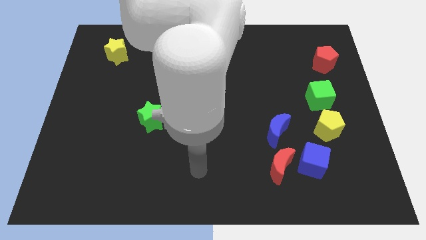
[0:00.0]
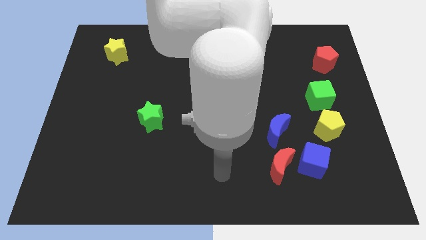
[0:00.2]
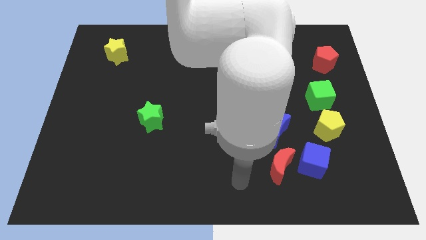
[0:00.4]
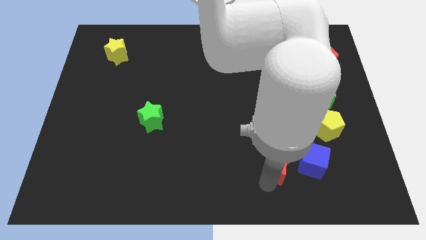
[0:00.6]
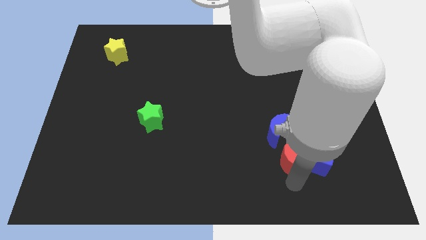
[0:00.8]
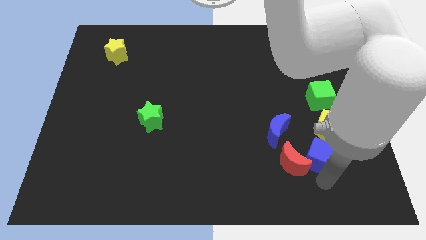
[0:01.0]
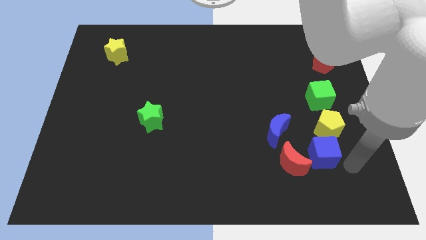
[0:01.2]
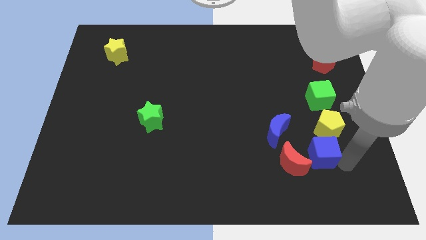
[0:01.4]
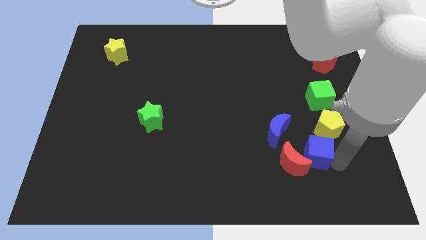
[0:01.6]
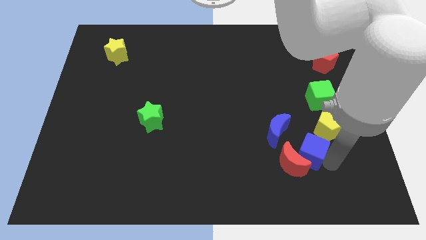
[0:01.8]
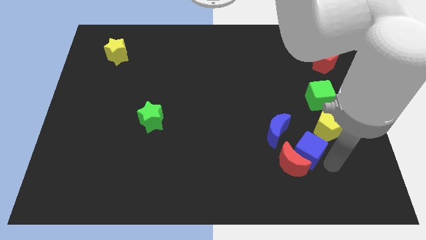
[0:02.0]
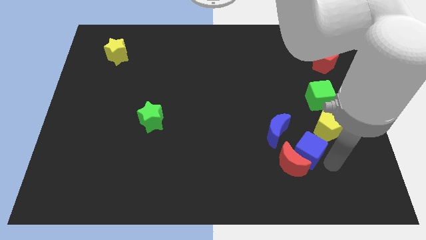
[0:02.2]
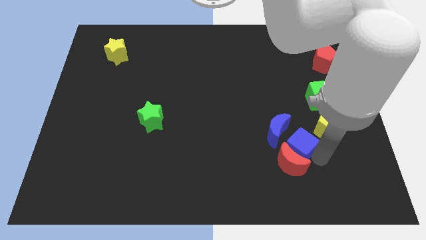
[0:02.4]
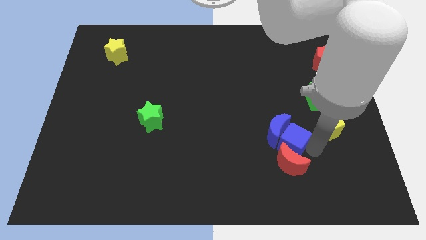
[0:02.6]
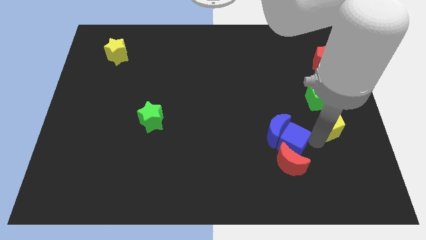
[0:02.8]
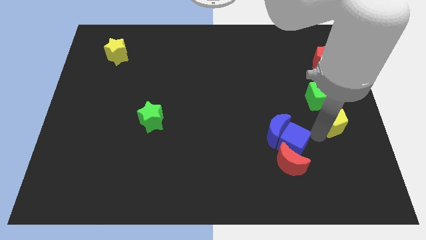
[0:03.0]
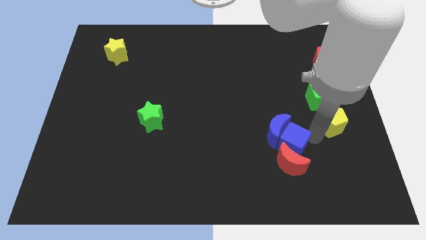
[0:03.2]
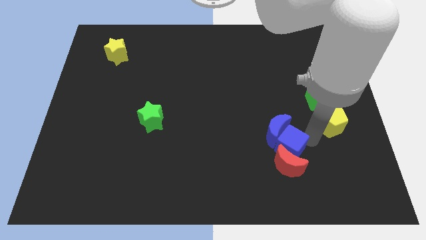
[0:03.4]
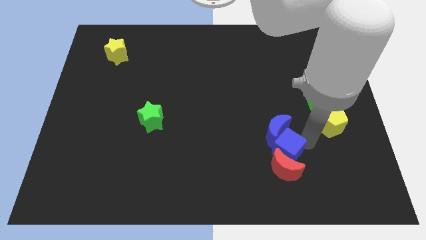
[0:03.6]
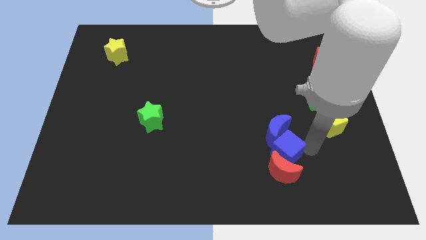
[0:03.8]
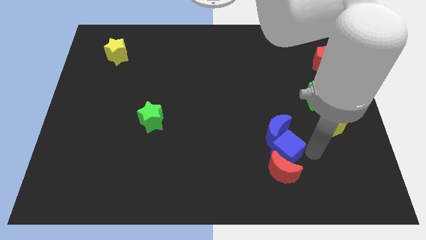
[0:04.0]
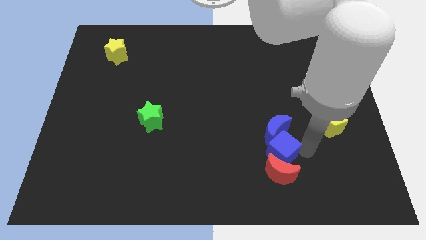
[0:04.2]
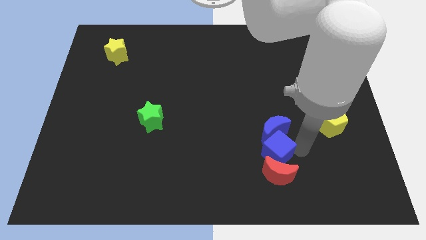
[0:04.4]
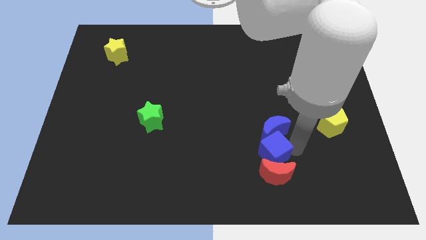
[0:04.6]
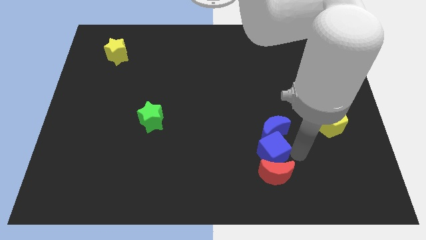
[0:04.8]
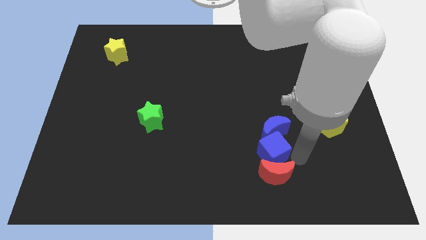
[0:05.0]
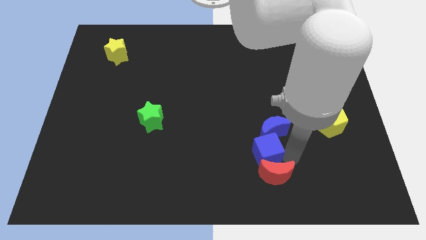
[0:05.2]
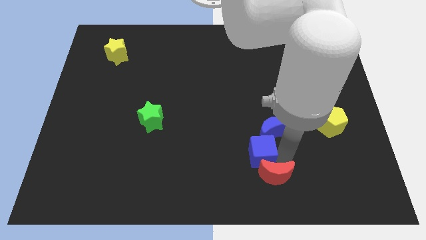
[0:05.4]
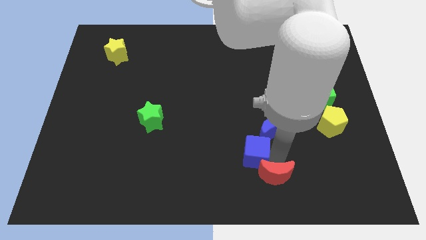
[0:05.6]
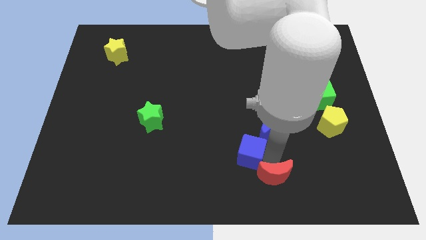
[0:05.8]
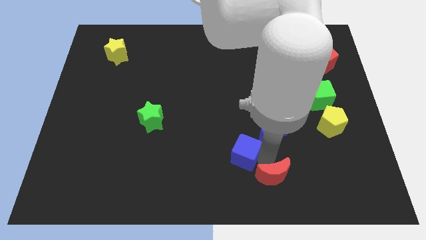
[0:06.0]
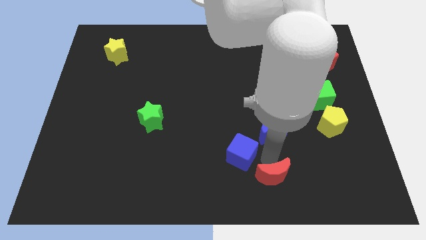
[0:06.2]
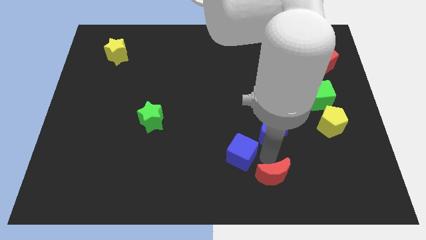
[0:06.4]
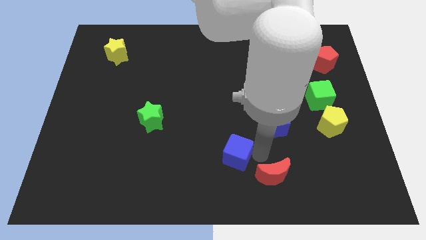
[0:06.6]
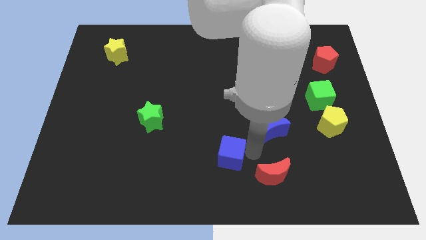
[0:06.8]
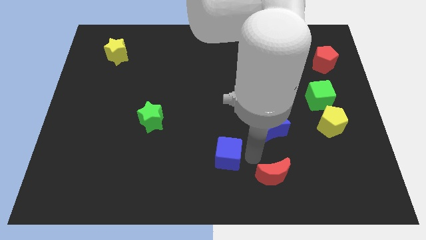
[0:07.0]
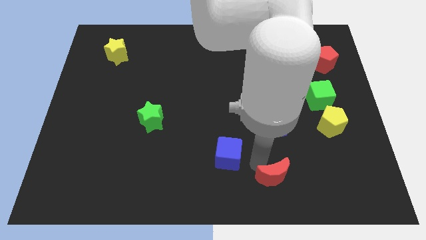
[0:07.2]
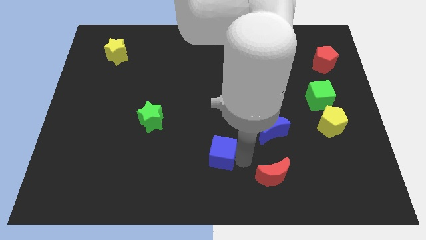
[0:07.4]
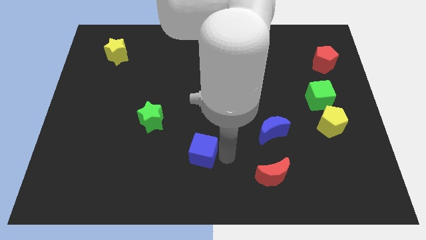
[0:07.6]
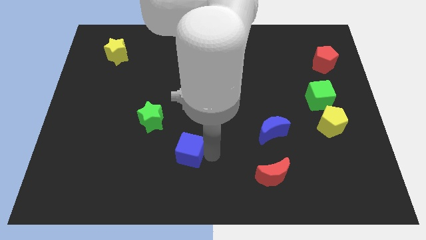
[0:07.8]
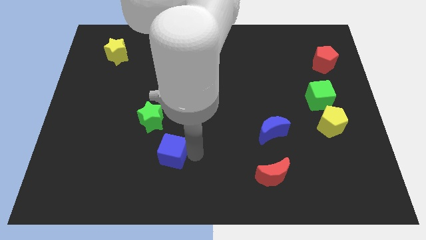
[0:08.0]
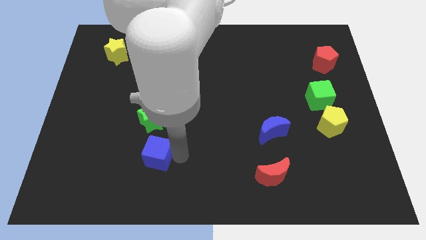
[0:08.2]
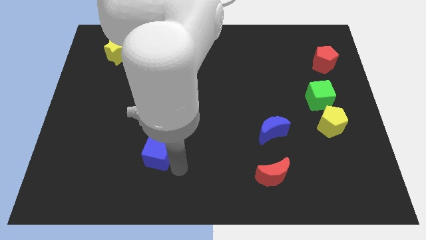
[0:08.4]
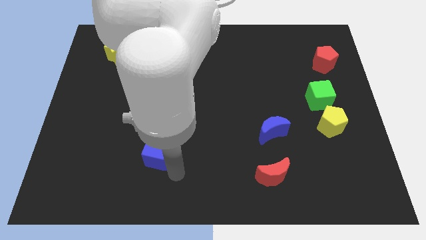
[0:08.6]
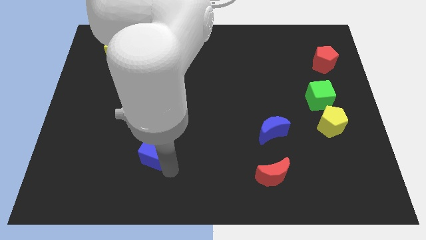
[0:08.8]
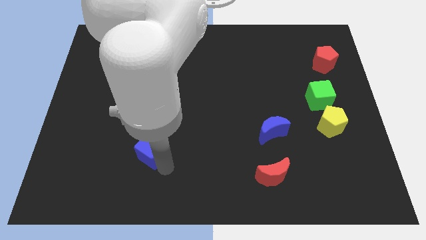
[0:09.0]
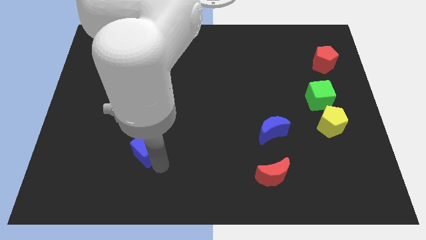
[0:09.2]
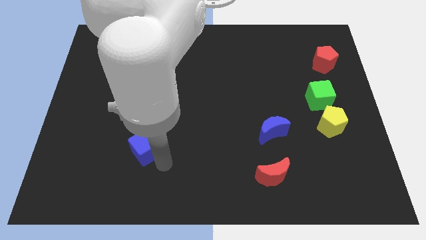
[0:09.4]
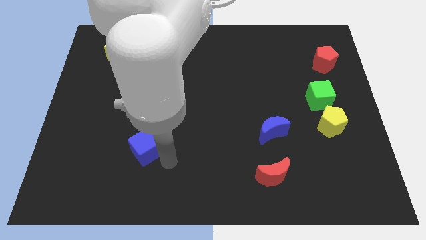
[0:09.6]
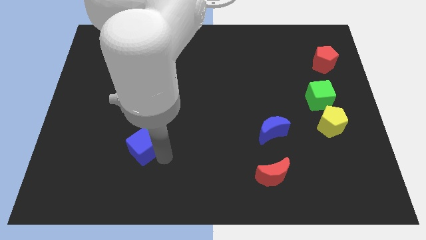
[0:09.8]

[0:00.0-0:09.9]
slide the blue cube to the bottom left side of the green star

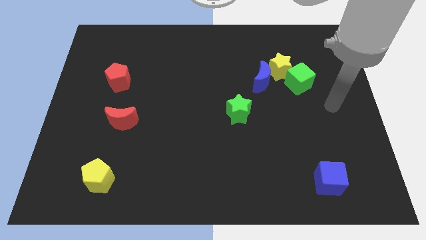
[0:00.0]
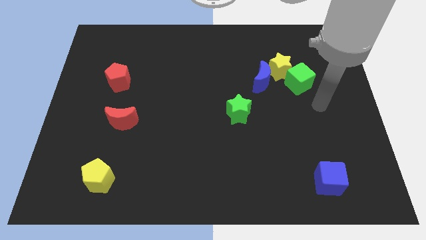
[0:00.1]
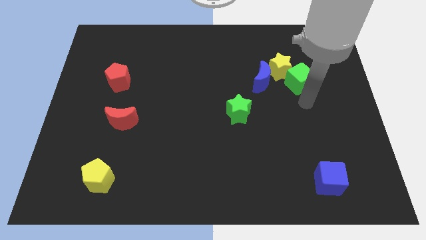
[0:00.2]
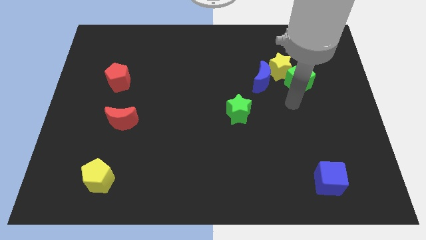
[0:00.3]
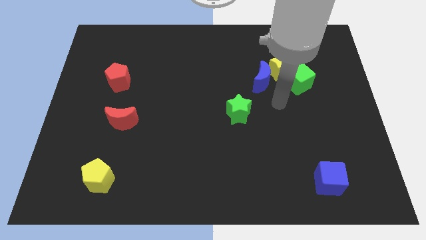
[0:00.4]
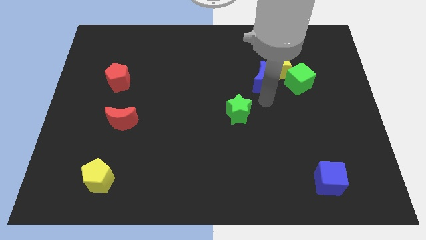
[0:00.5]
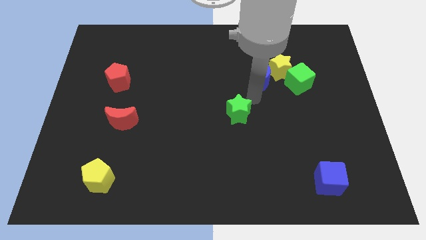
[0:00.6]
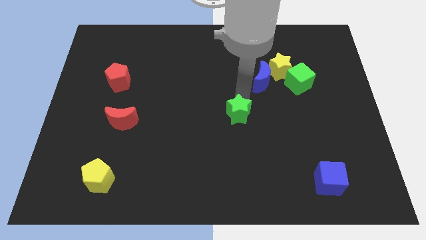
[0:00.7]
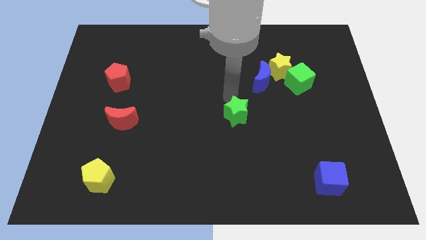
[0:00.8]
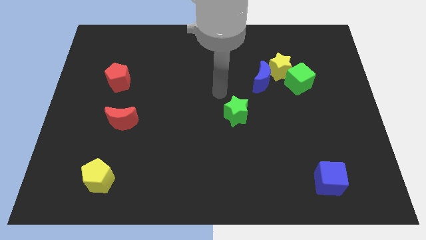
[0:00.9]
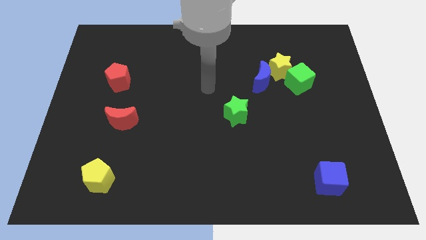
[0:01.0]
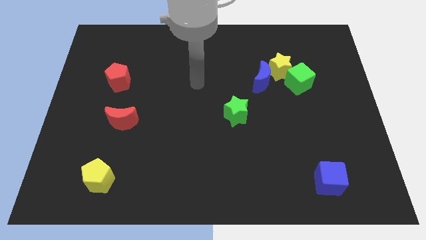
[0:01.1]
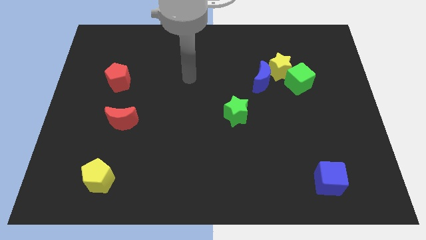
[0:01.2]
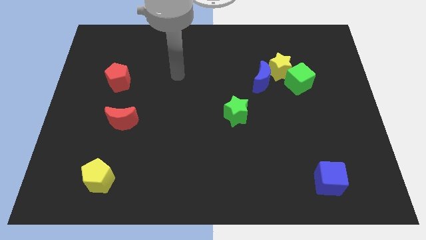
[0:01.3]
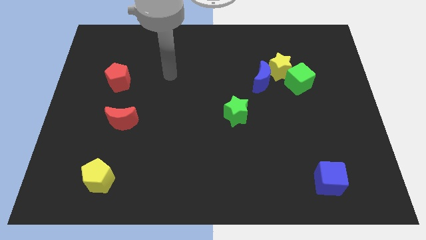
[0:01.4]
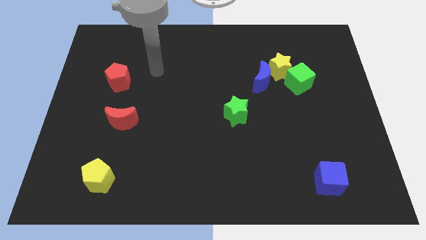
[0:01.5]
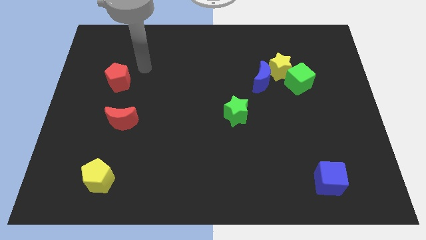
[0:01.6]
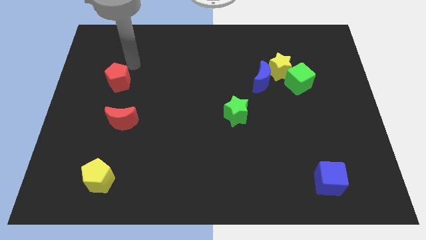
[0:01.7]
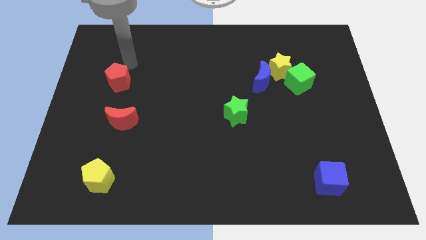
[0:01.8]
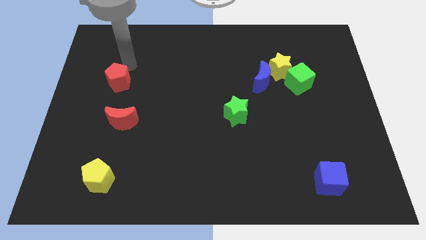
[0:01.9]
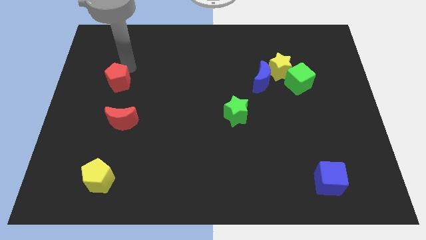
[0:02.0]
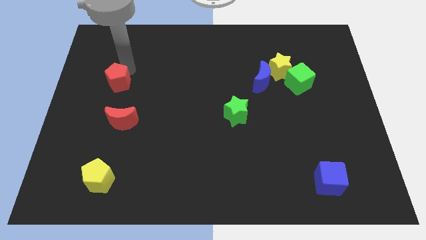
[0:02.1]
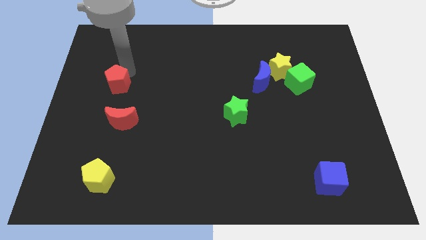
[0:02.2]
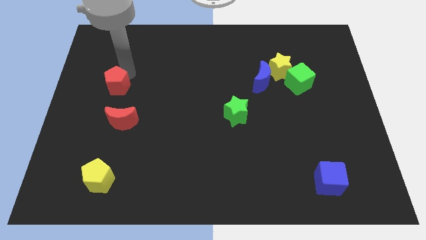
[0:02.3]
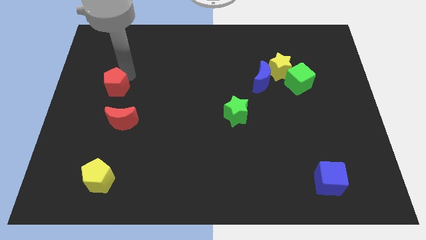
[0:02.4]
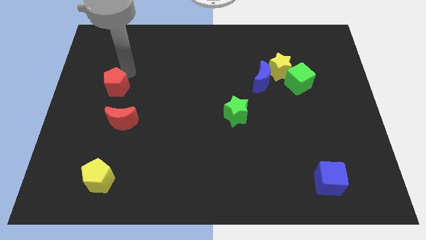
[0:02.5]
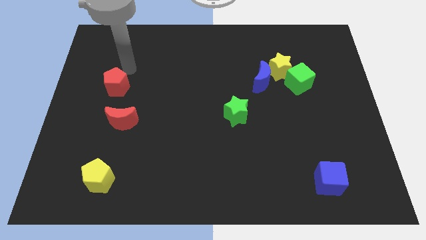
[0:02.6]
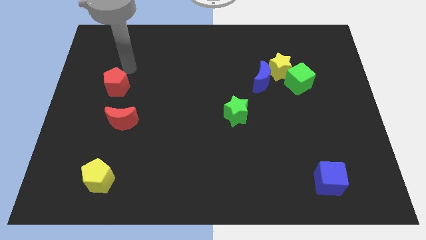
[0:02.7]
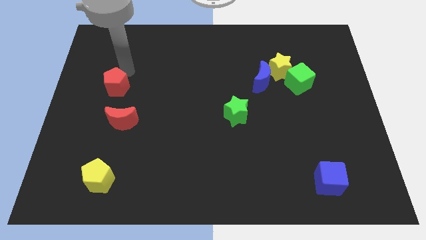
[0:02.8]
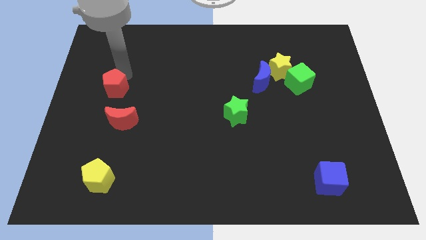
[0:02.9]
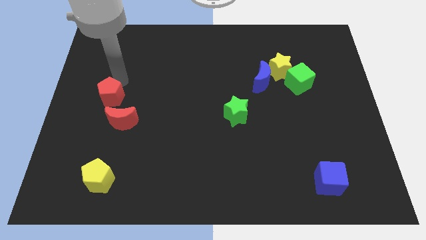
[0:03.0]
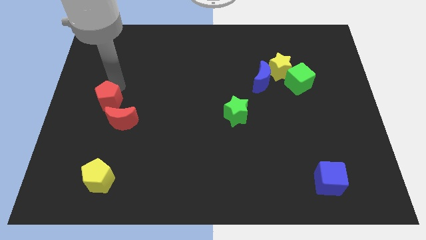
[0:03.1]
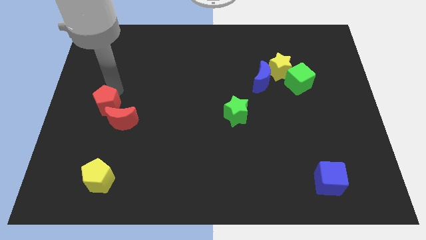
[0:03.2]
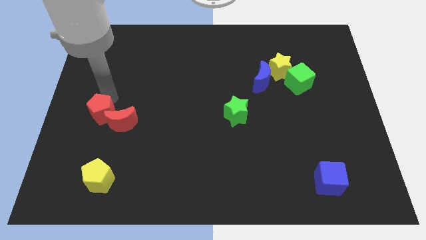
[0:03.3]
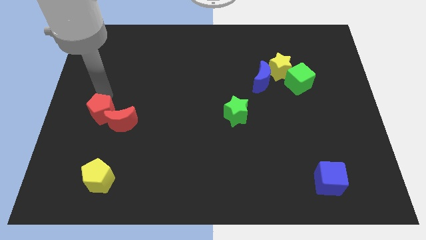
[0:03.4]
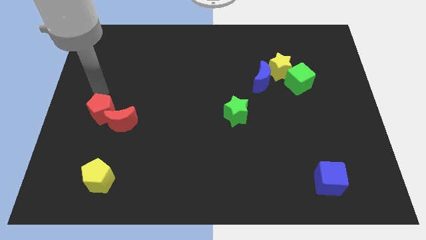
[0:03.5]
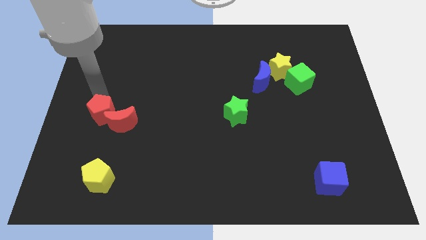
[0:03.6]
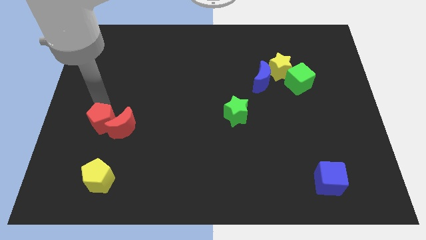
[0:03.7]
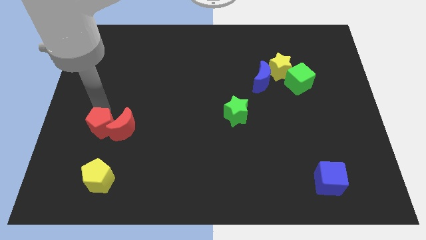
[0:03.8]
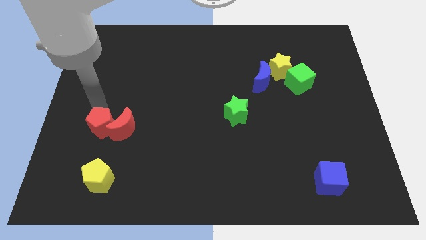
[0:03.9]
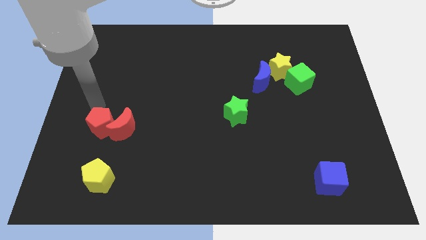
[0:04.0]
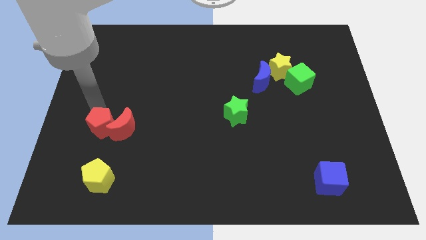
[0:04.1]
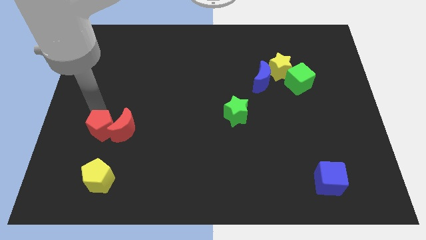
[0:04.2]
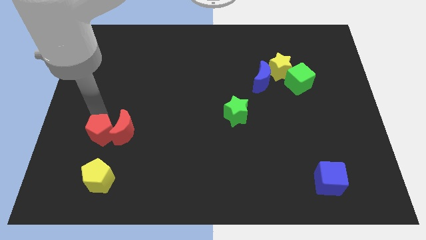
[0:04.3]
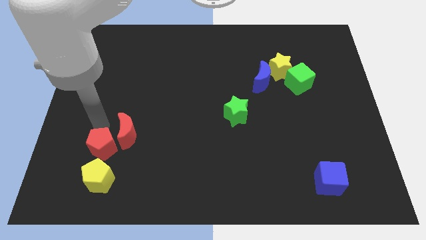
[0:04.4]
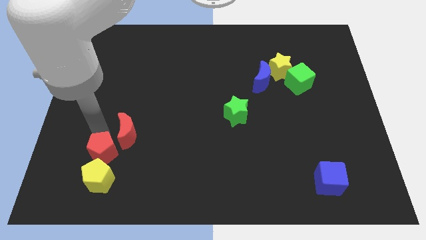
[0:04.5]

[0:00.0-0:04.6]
push the red pentagon to the bottom side of the red moon
